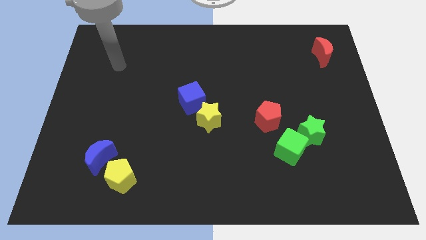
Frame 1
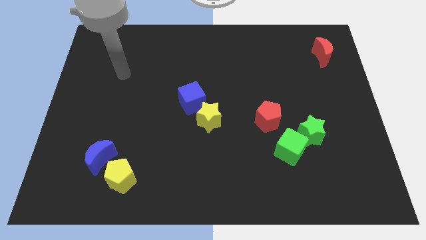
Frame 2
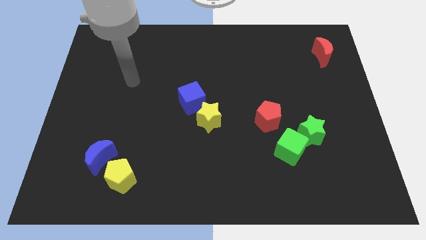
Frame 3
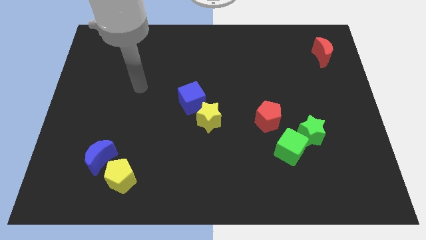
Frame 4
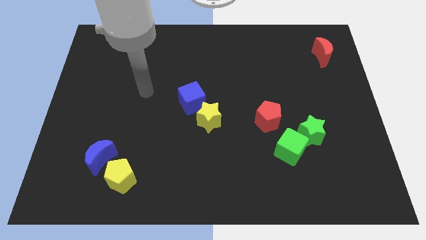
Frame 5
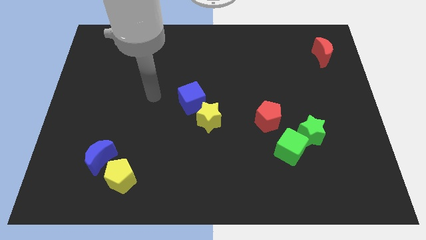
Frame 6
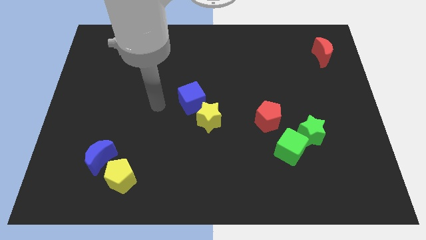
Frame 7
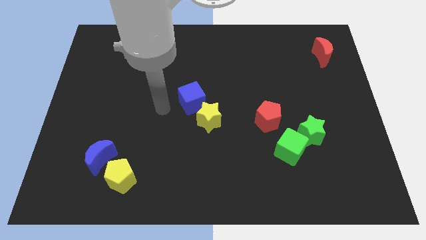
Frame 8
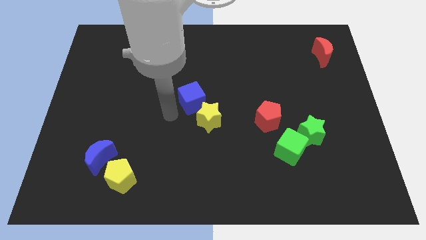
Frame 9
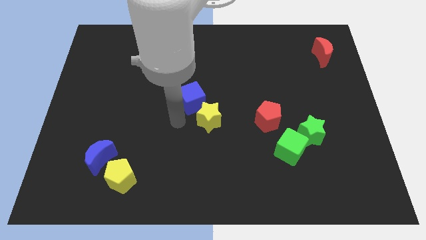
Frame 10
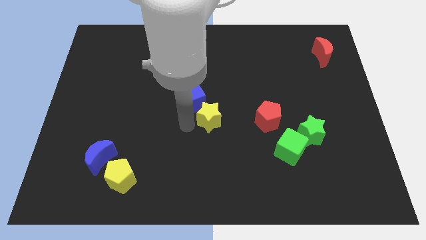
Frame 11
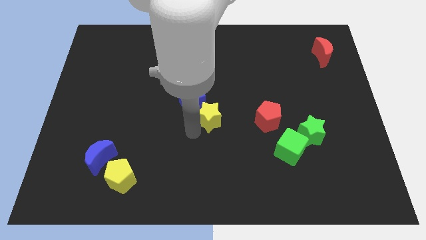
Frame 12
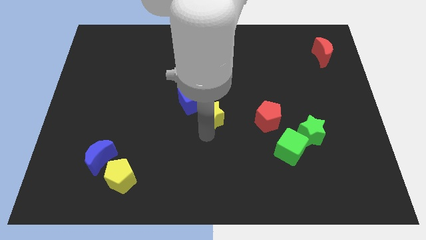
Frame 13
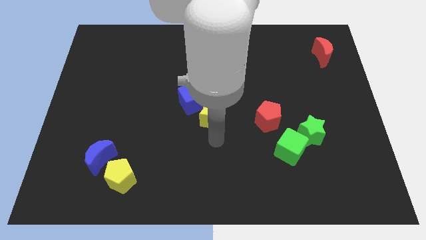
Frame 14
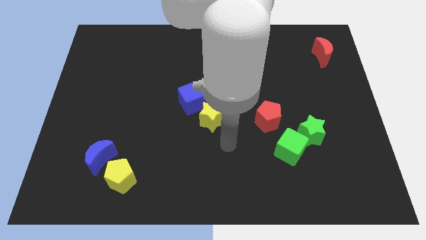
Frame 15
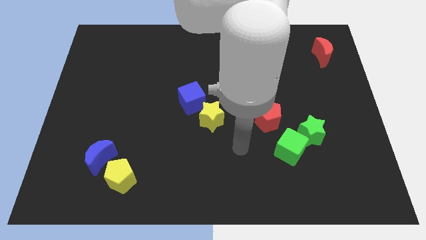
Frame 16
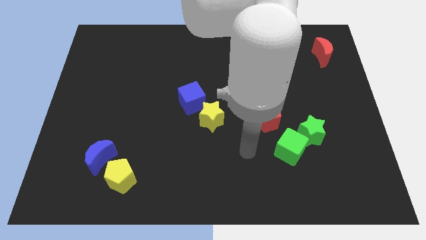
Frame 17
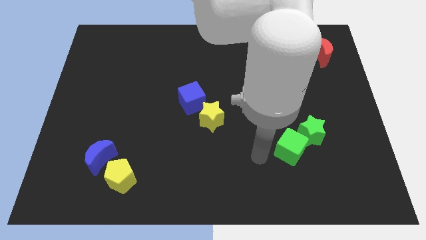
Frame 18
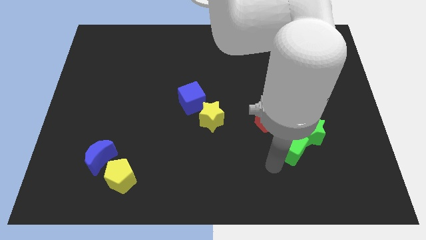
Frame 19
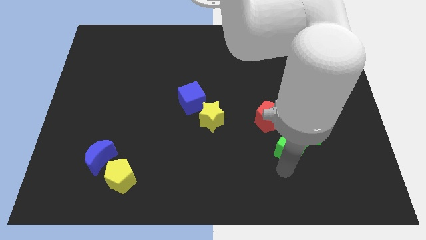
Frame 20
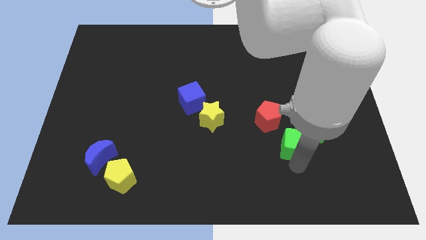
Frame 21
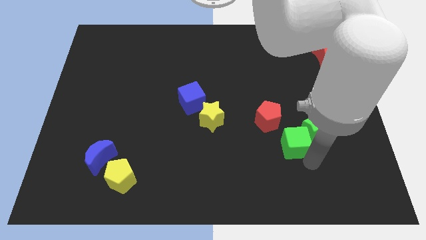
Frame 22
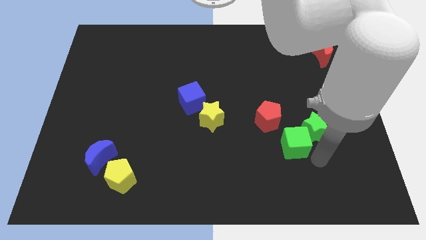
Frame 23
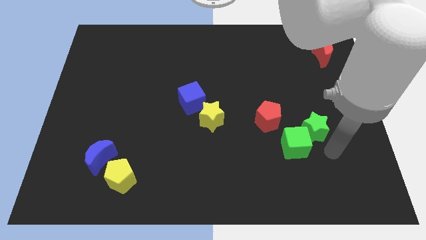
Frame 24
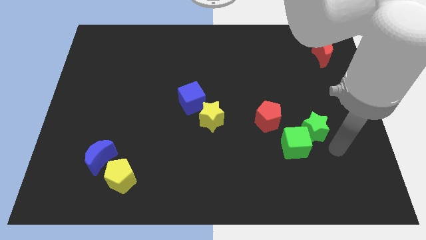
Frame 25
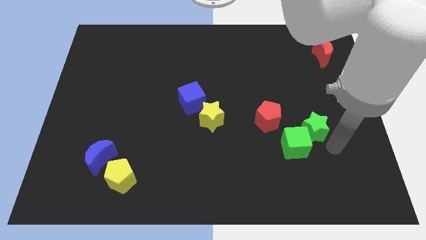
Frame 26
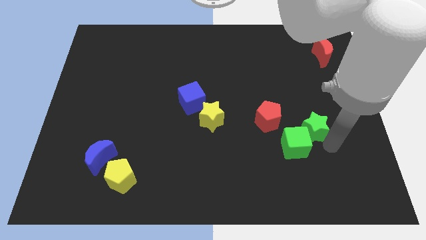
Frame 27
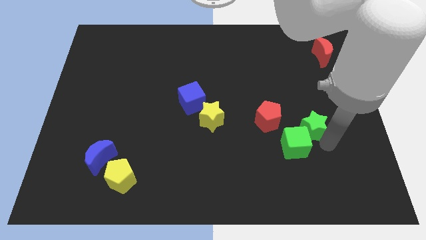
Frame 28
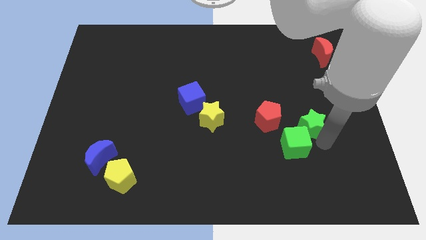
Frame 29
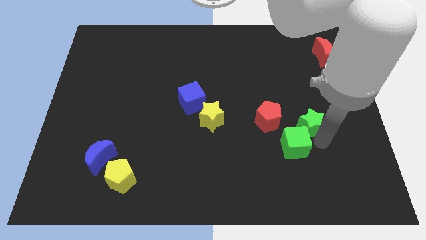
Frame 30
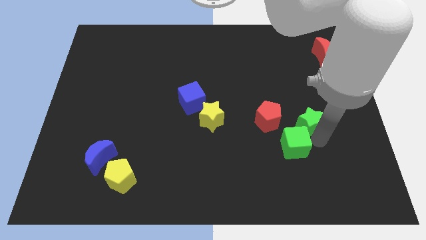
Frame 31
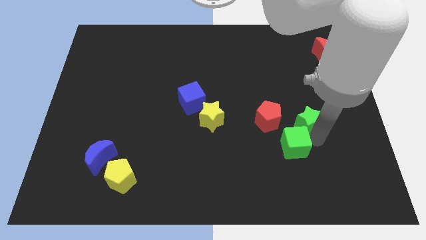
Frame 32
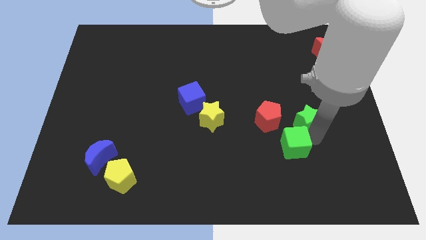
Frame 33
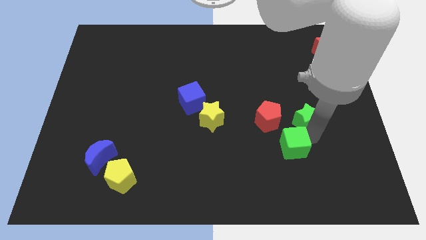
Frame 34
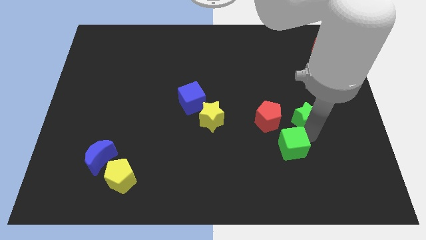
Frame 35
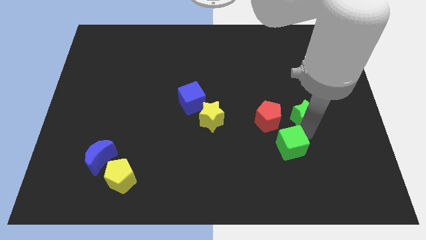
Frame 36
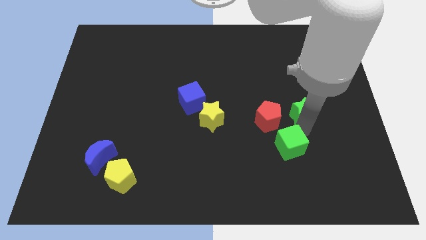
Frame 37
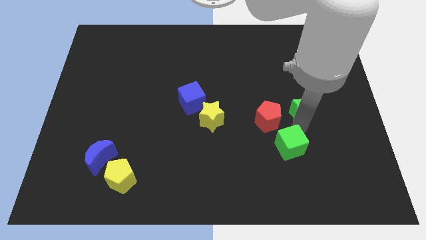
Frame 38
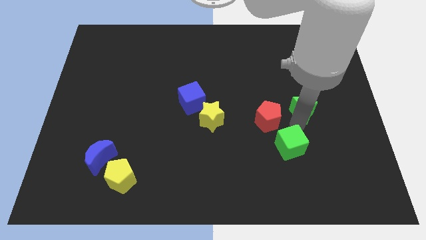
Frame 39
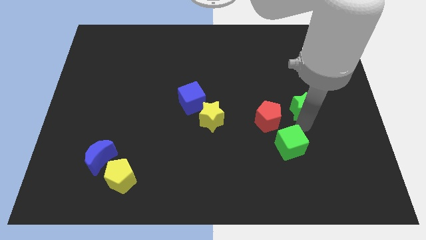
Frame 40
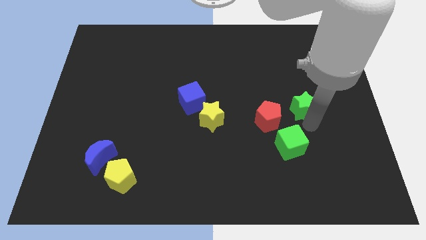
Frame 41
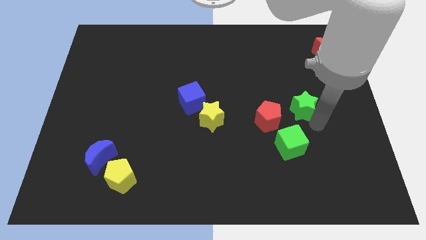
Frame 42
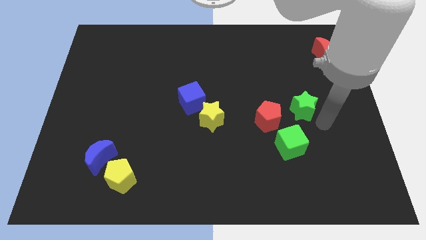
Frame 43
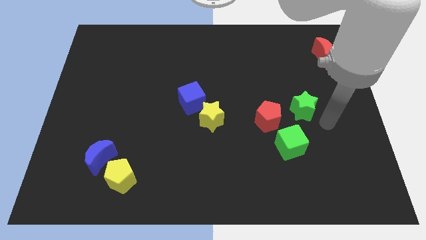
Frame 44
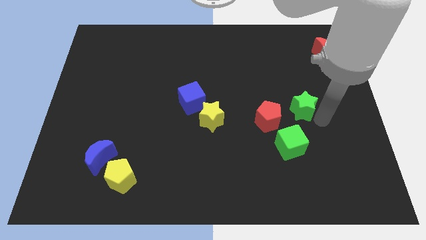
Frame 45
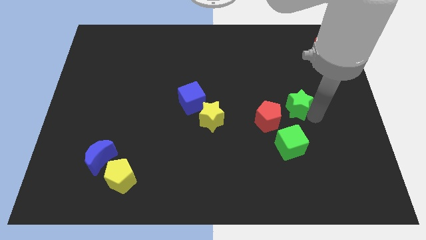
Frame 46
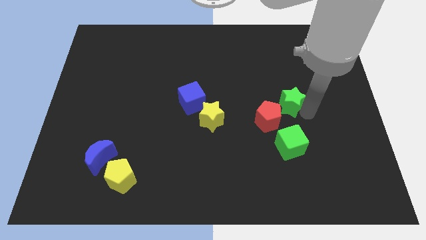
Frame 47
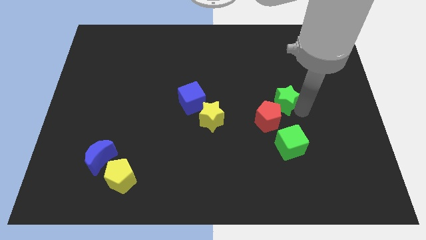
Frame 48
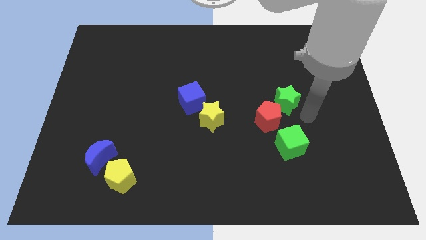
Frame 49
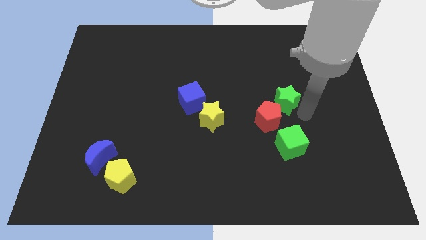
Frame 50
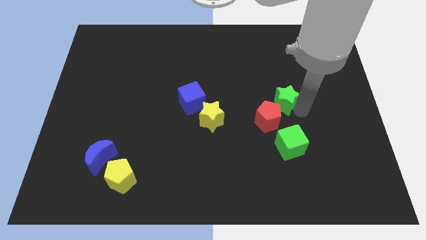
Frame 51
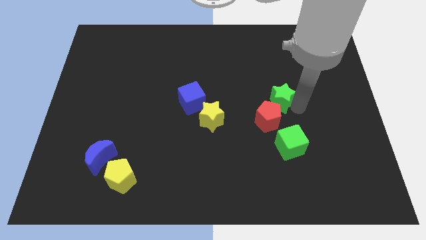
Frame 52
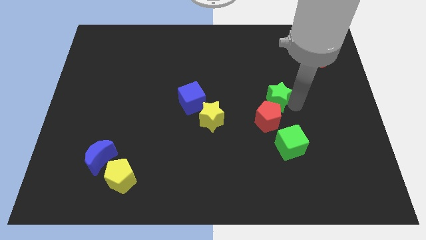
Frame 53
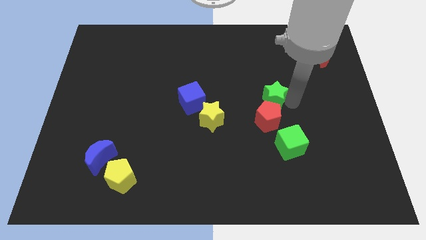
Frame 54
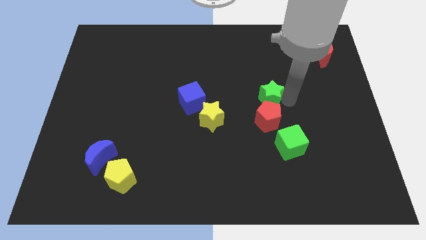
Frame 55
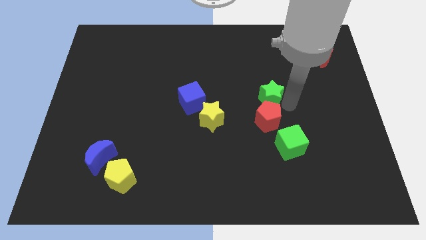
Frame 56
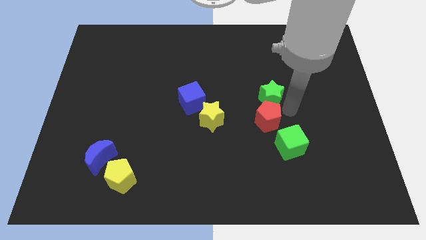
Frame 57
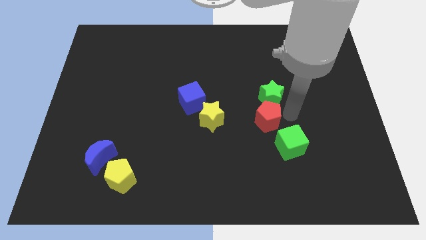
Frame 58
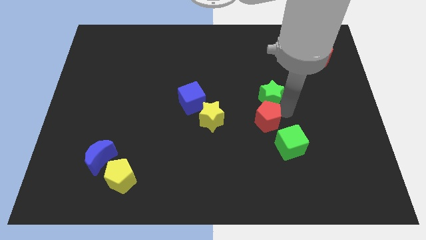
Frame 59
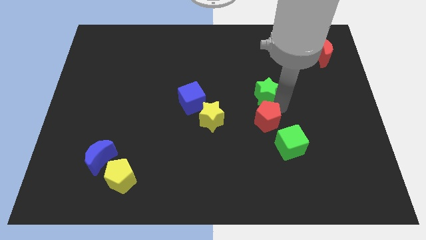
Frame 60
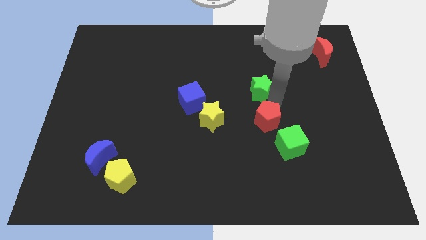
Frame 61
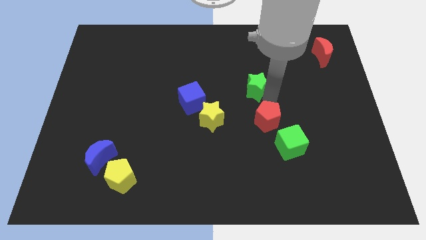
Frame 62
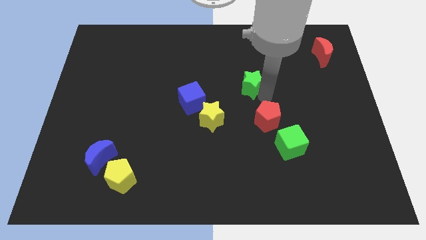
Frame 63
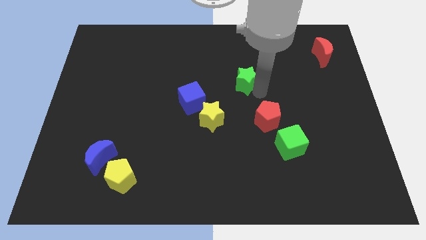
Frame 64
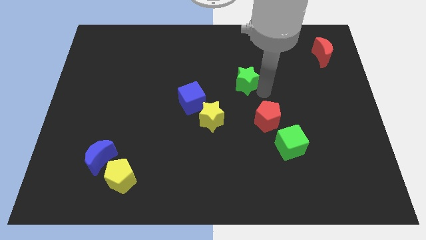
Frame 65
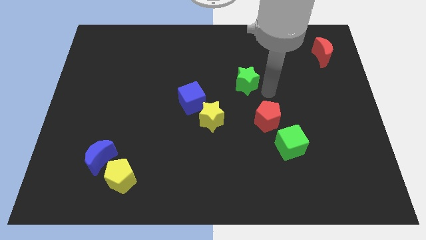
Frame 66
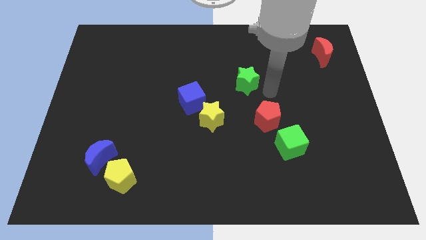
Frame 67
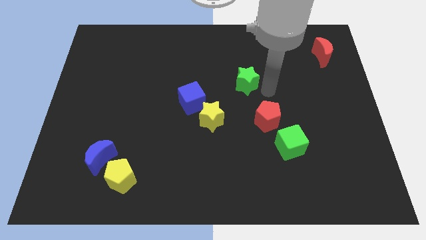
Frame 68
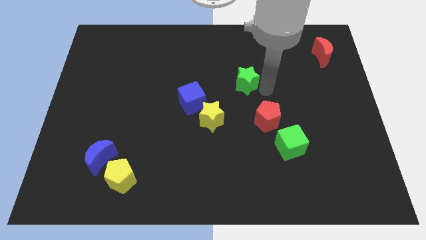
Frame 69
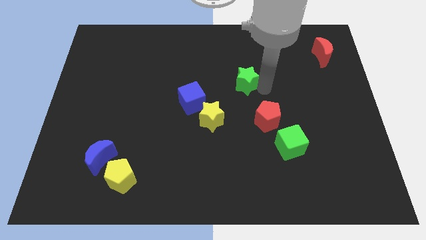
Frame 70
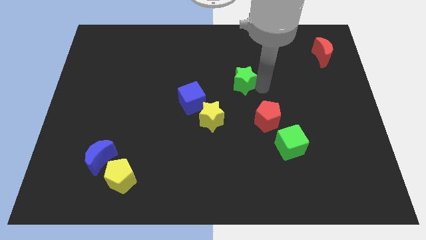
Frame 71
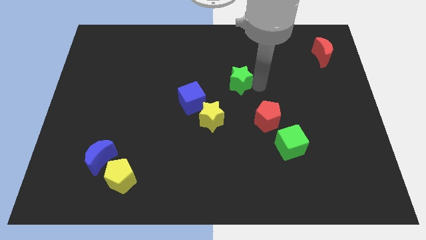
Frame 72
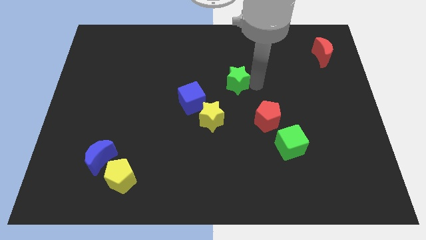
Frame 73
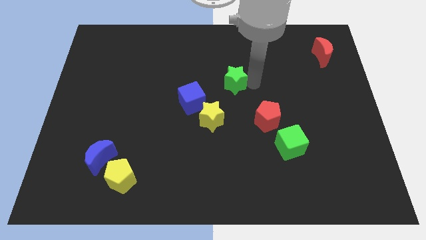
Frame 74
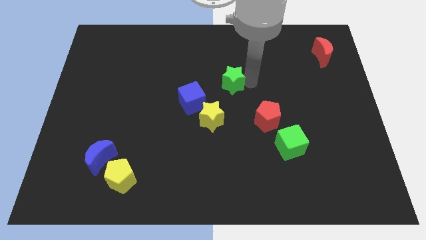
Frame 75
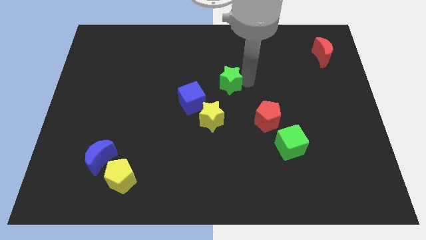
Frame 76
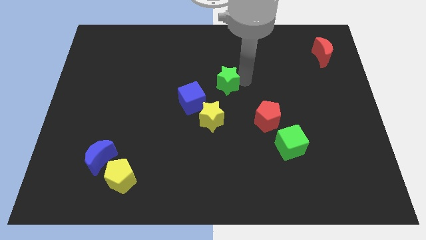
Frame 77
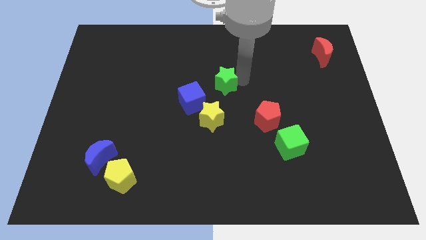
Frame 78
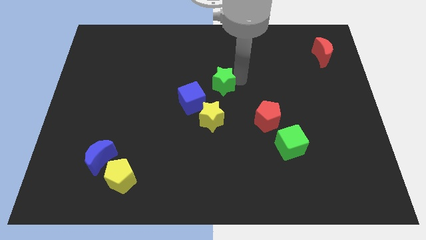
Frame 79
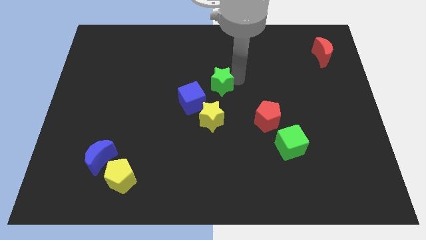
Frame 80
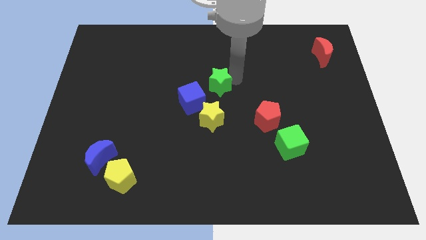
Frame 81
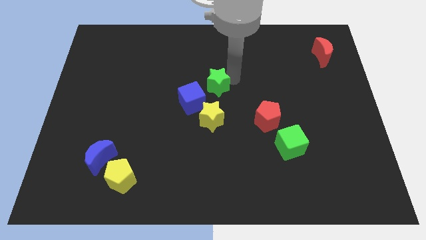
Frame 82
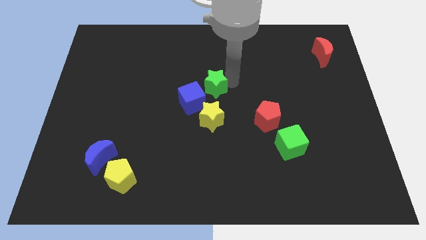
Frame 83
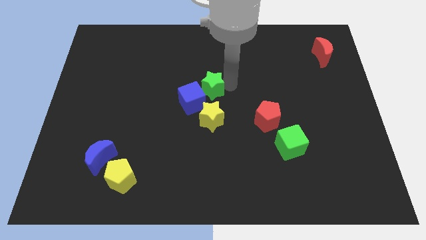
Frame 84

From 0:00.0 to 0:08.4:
move the green star to the top side of the blue cube
